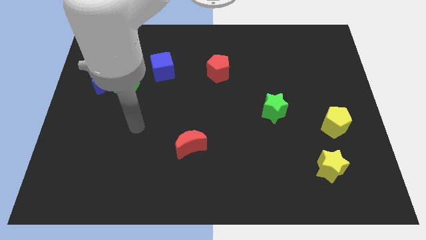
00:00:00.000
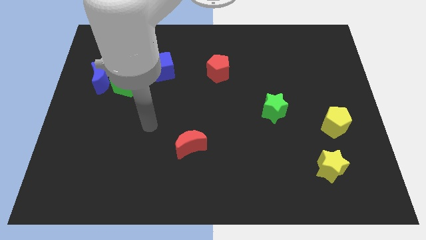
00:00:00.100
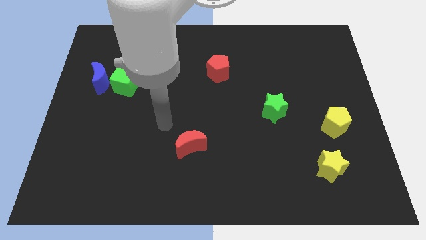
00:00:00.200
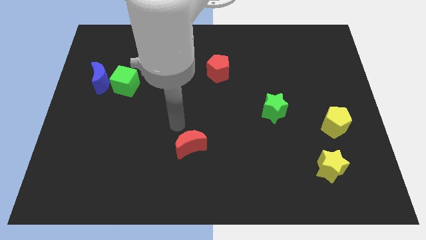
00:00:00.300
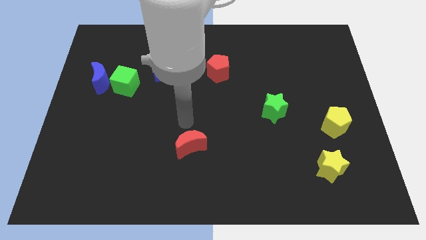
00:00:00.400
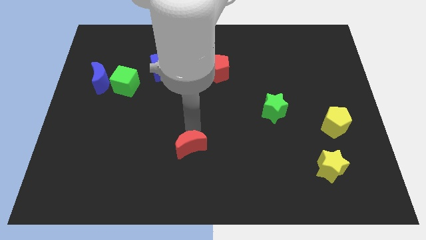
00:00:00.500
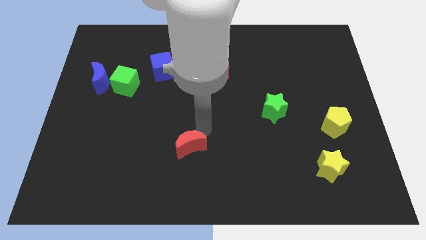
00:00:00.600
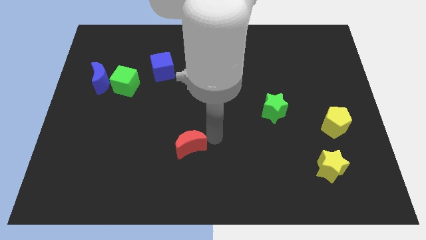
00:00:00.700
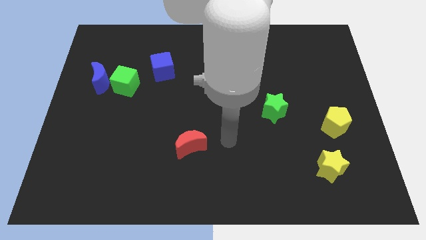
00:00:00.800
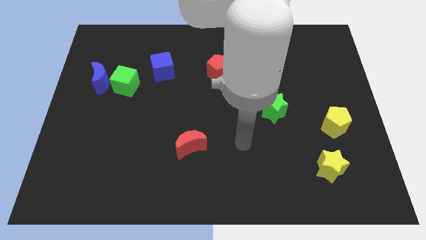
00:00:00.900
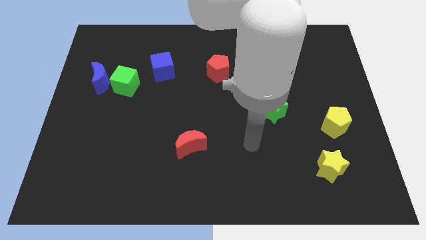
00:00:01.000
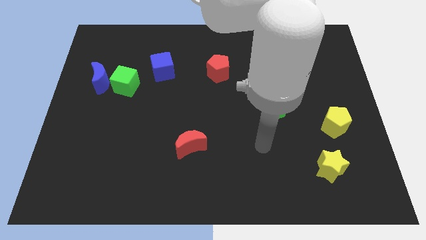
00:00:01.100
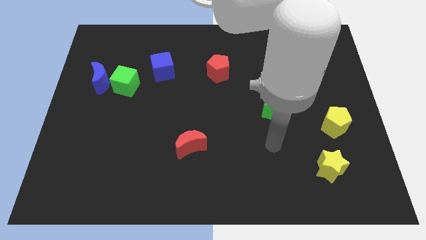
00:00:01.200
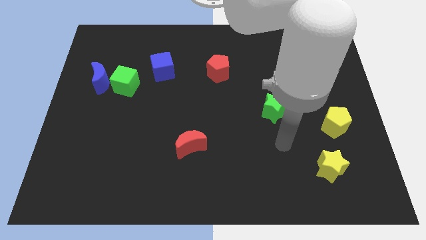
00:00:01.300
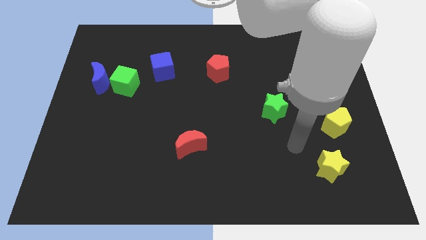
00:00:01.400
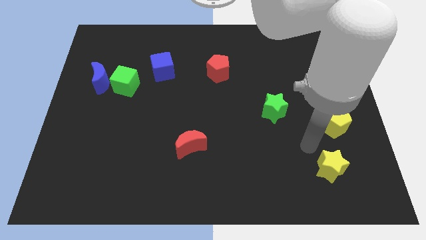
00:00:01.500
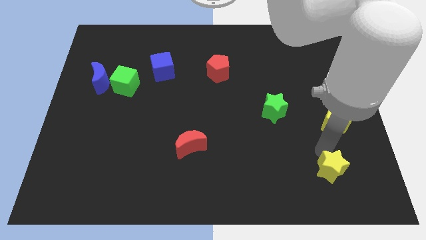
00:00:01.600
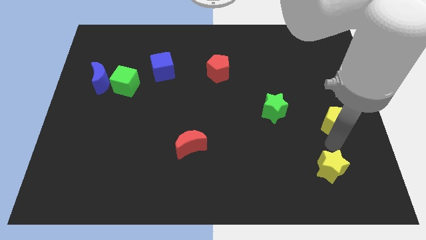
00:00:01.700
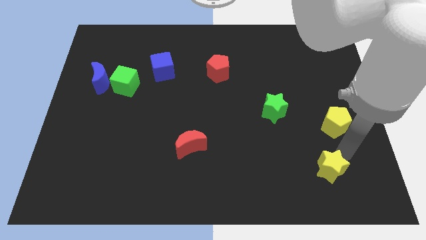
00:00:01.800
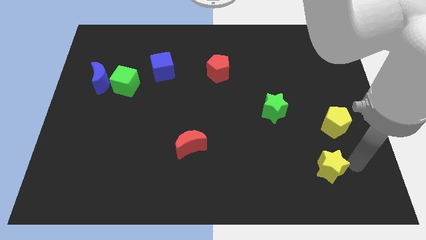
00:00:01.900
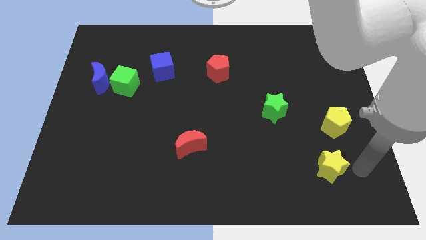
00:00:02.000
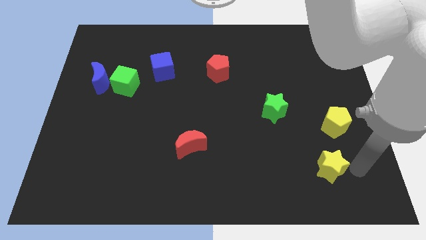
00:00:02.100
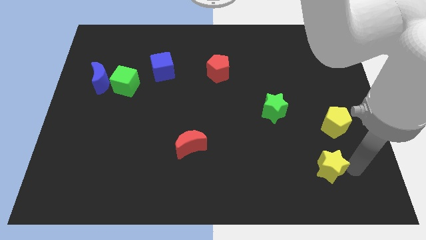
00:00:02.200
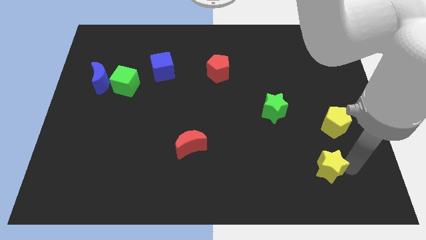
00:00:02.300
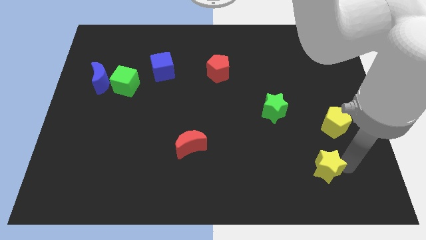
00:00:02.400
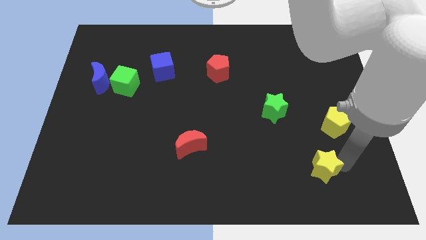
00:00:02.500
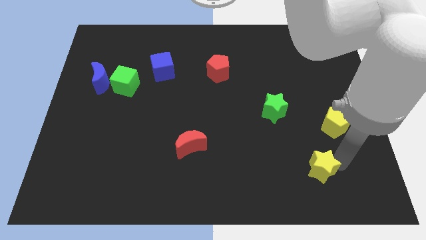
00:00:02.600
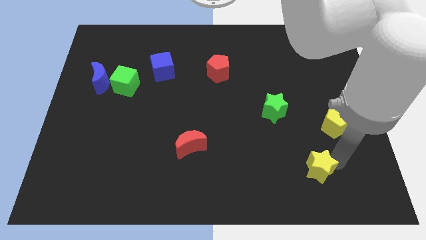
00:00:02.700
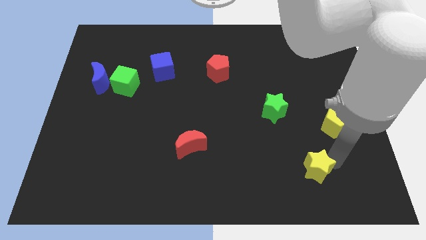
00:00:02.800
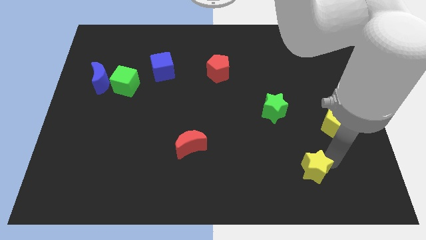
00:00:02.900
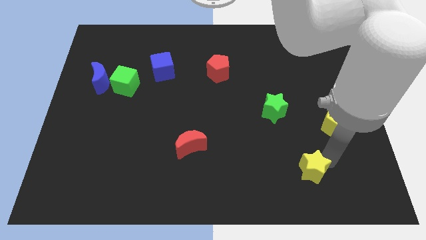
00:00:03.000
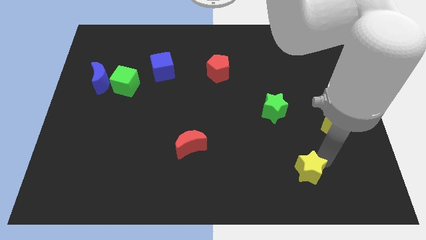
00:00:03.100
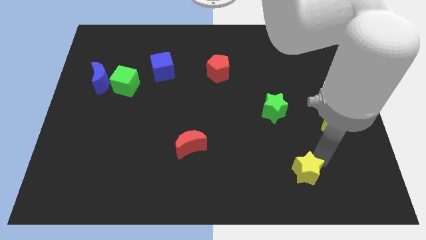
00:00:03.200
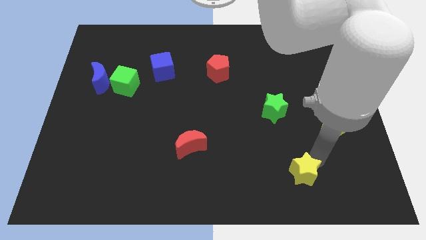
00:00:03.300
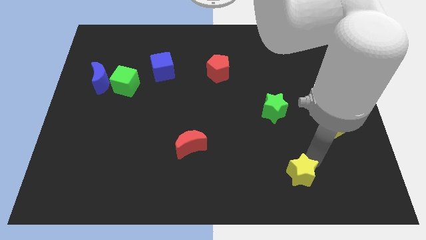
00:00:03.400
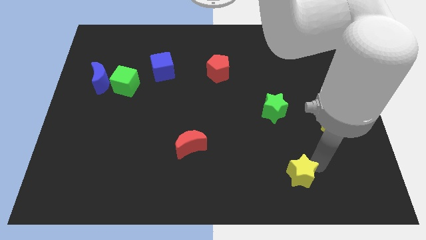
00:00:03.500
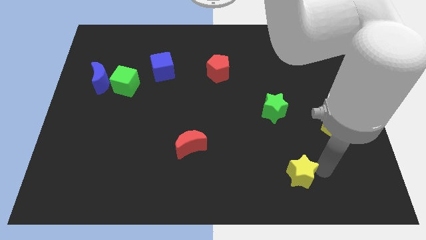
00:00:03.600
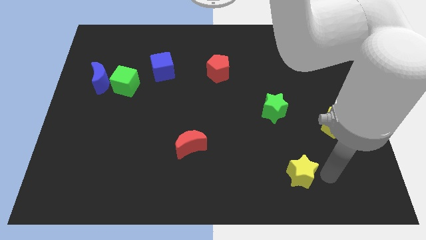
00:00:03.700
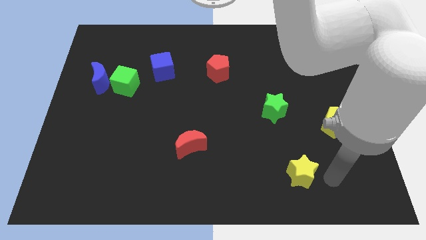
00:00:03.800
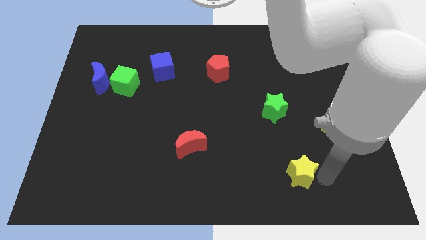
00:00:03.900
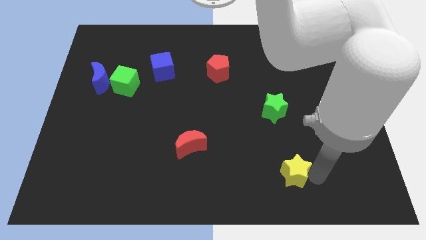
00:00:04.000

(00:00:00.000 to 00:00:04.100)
slightly push the yellow star left

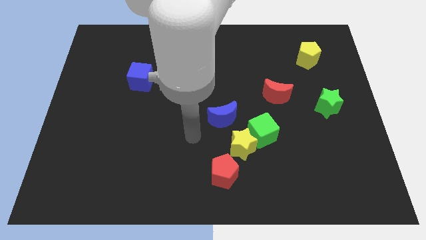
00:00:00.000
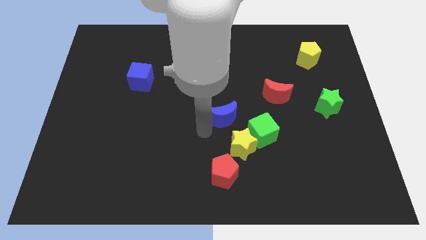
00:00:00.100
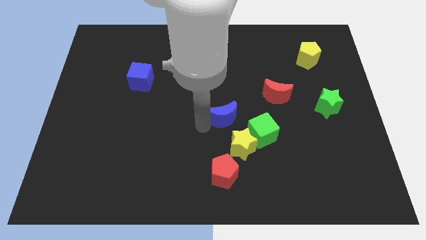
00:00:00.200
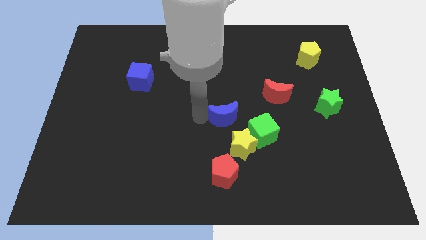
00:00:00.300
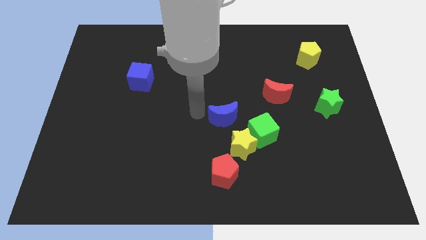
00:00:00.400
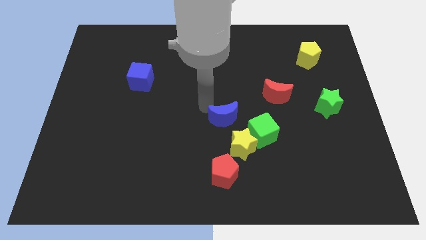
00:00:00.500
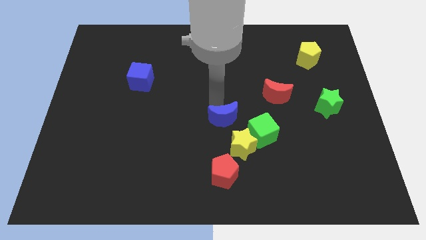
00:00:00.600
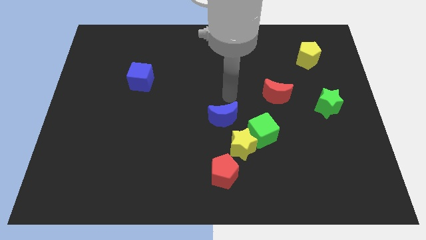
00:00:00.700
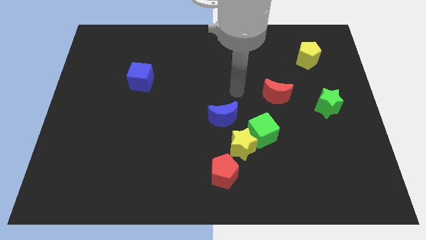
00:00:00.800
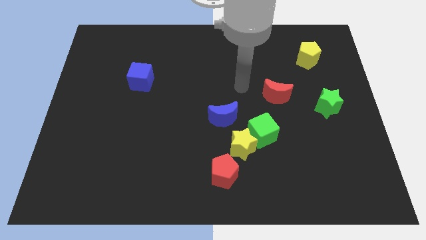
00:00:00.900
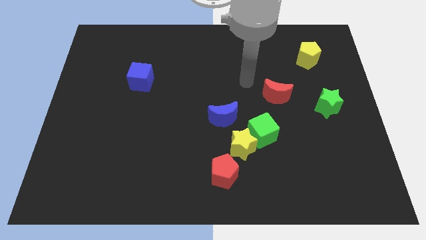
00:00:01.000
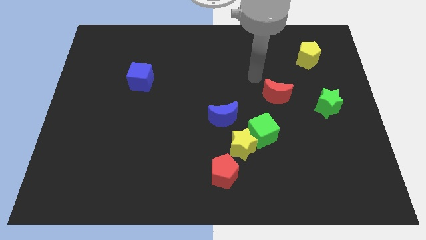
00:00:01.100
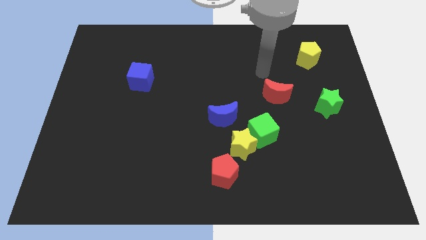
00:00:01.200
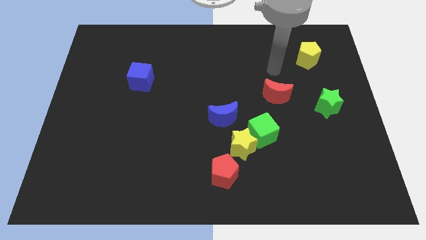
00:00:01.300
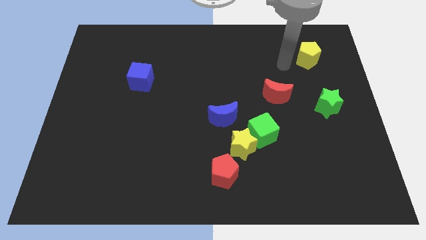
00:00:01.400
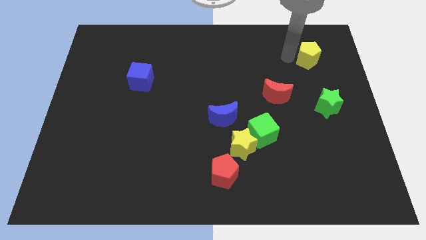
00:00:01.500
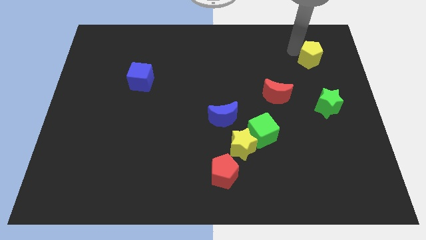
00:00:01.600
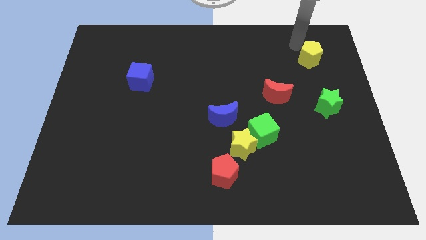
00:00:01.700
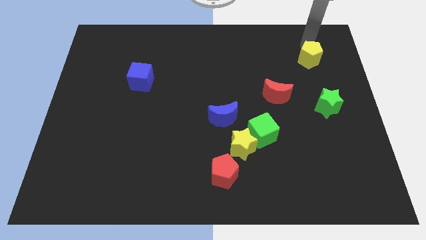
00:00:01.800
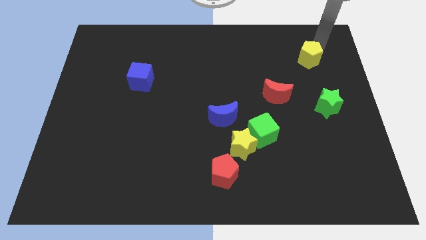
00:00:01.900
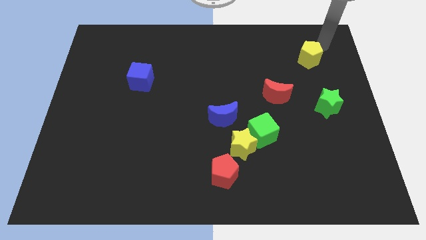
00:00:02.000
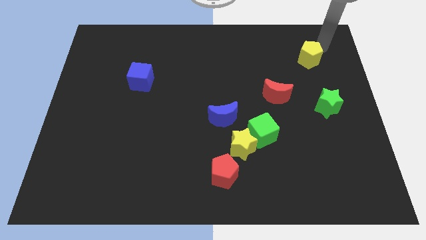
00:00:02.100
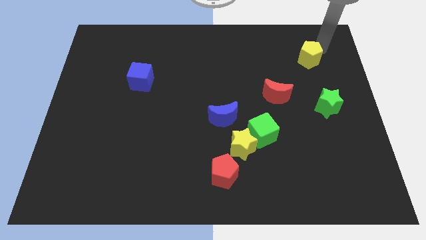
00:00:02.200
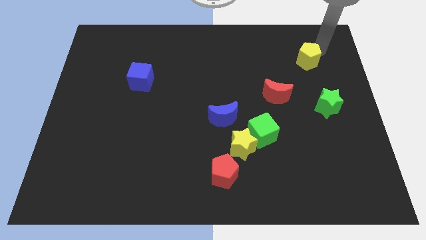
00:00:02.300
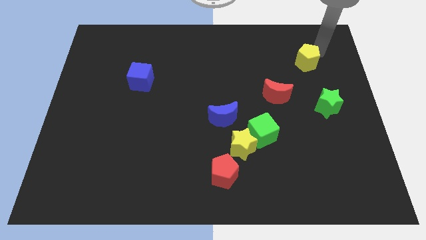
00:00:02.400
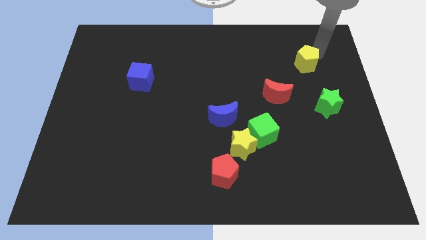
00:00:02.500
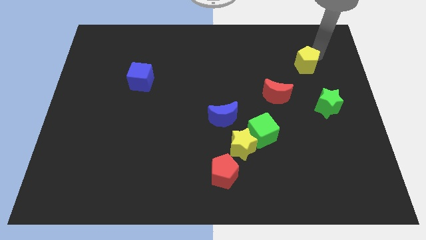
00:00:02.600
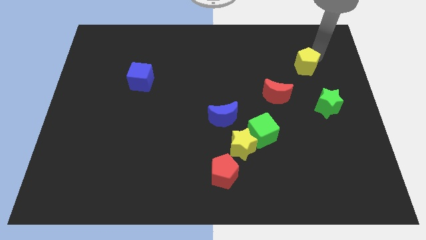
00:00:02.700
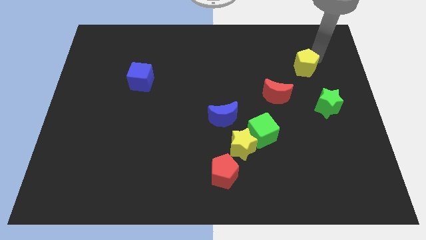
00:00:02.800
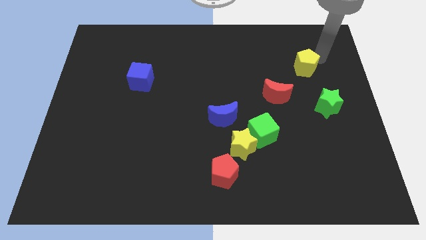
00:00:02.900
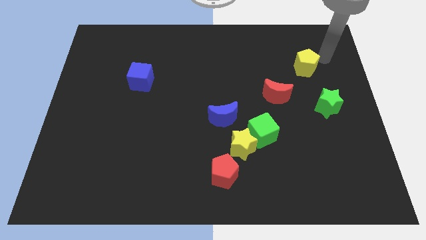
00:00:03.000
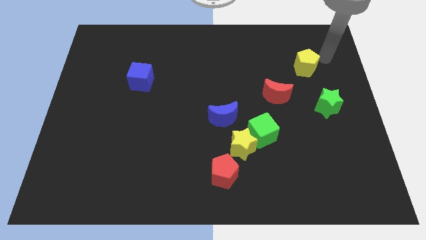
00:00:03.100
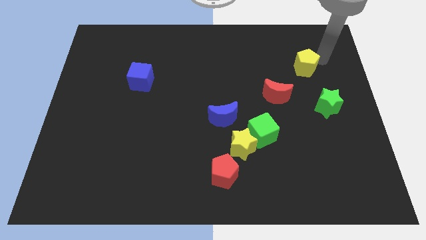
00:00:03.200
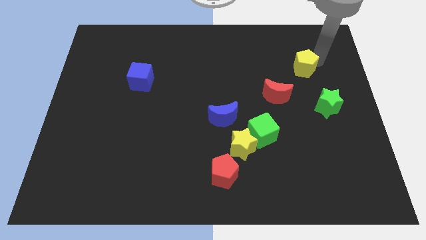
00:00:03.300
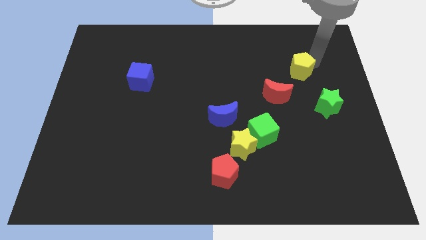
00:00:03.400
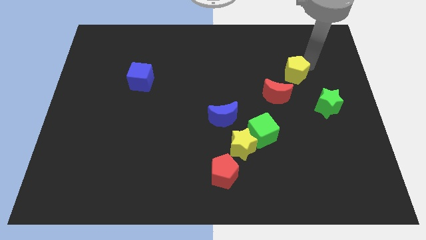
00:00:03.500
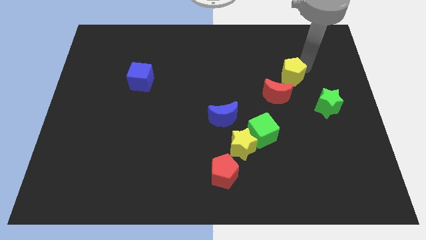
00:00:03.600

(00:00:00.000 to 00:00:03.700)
push the yellow pentagon somewhat downwards and then left

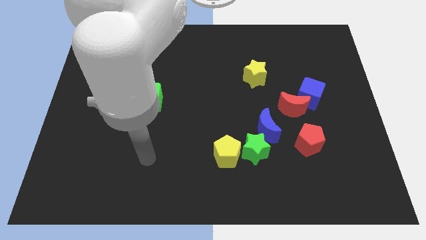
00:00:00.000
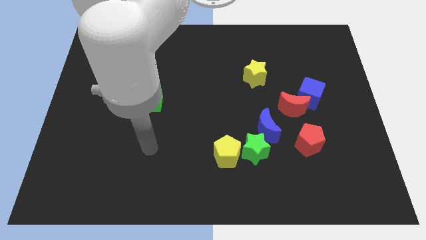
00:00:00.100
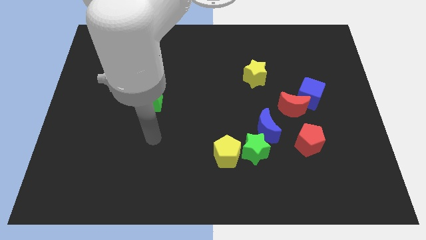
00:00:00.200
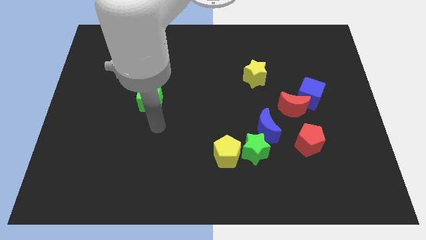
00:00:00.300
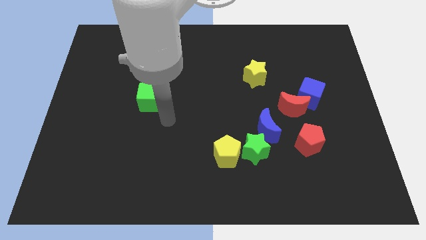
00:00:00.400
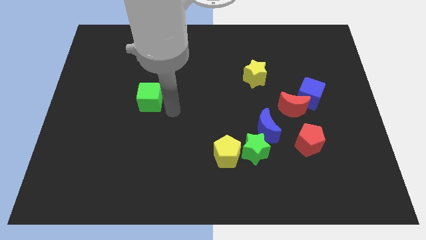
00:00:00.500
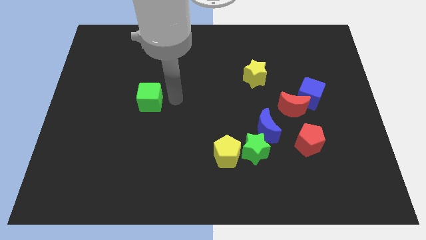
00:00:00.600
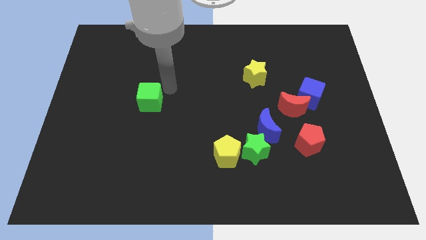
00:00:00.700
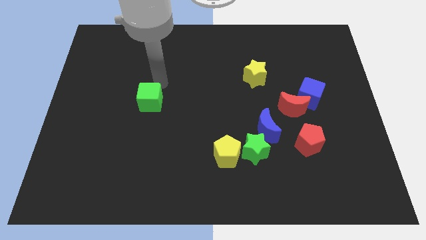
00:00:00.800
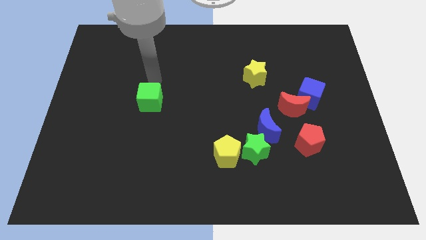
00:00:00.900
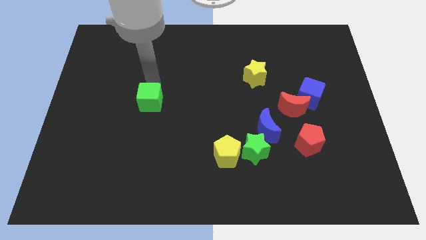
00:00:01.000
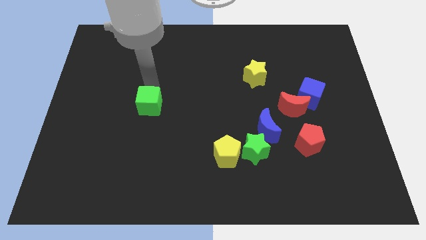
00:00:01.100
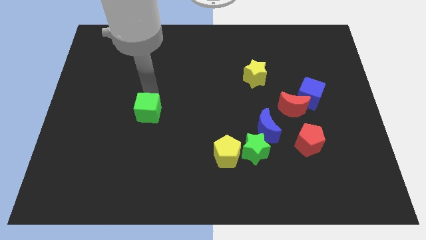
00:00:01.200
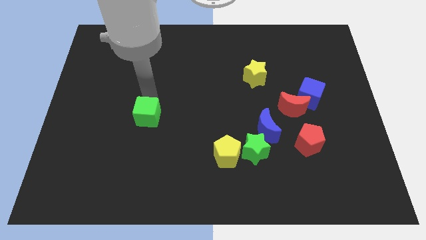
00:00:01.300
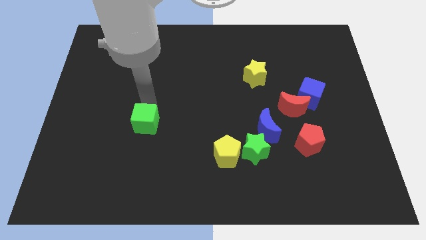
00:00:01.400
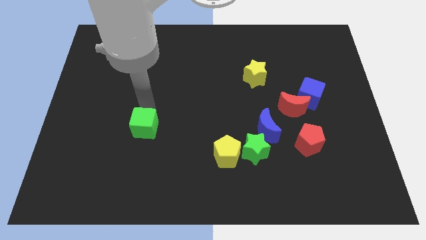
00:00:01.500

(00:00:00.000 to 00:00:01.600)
push the green cube downwards a bit
